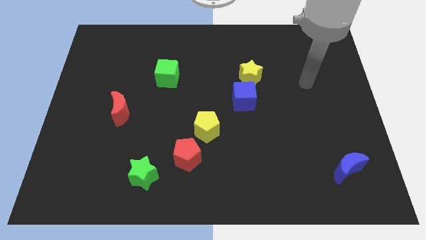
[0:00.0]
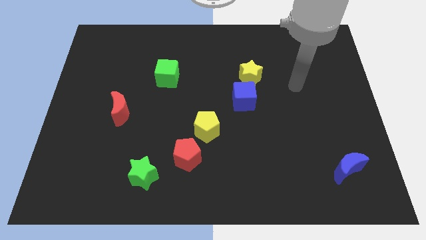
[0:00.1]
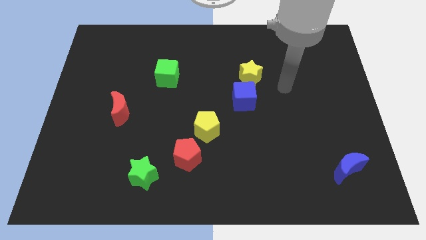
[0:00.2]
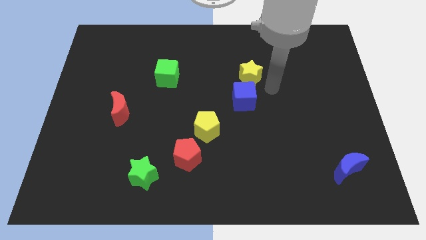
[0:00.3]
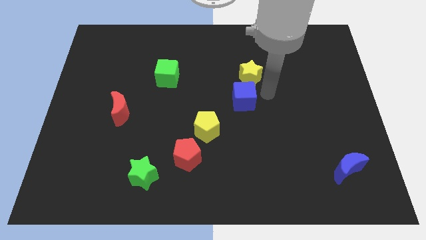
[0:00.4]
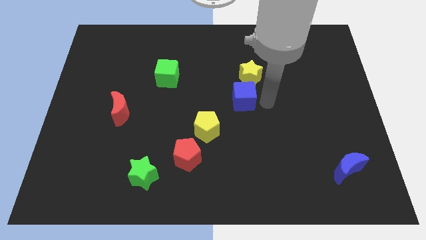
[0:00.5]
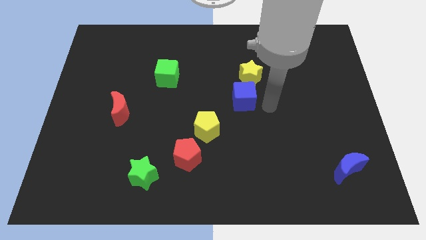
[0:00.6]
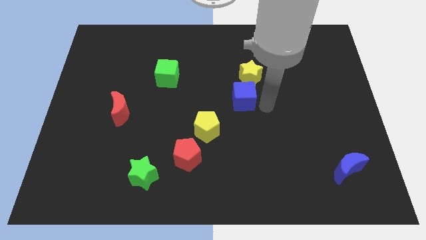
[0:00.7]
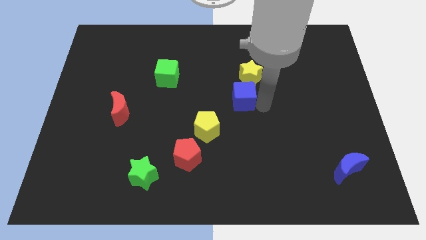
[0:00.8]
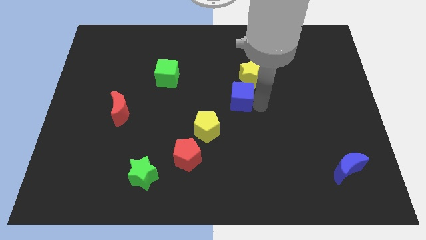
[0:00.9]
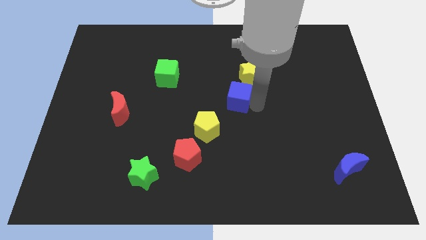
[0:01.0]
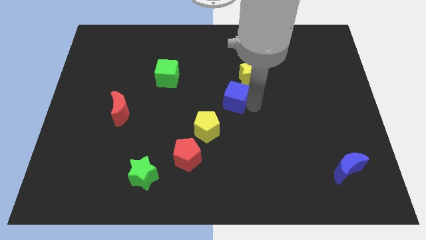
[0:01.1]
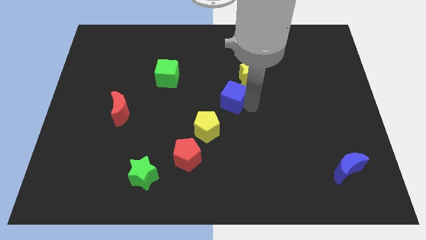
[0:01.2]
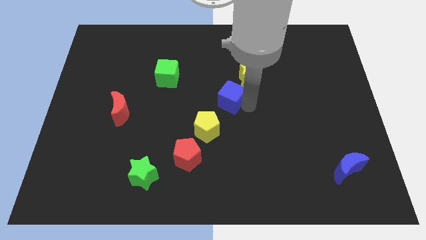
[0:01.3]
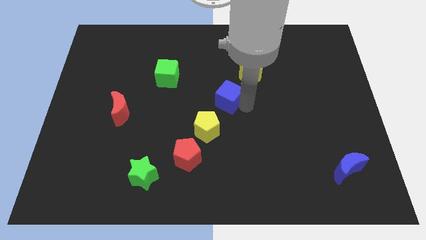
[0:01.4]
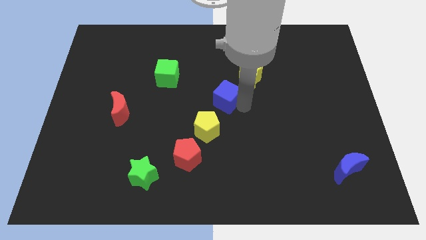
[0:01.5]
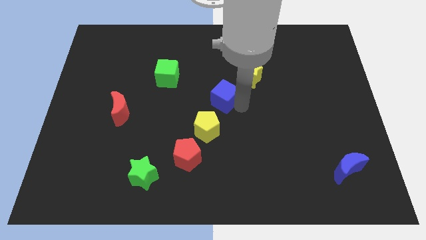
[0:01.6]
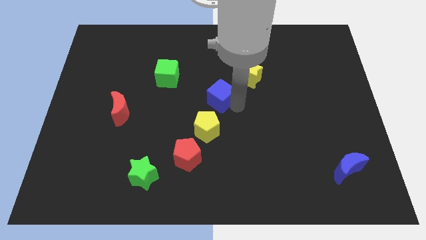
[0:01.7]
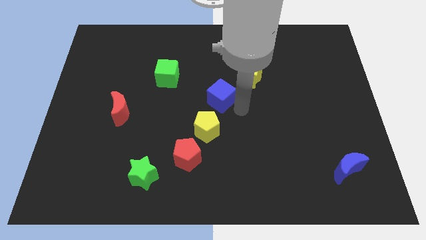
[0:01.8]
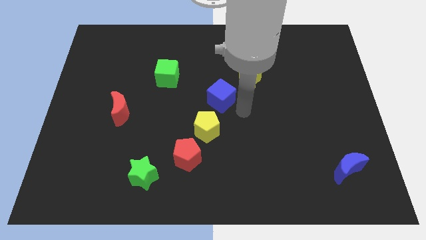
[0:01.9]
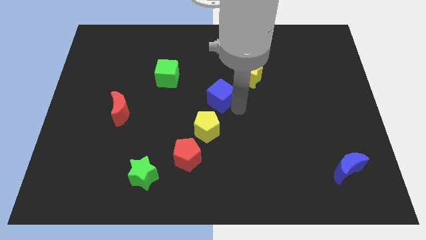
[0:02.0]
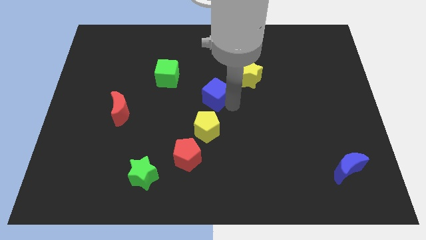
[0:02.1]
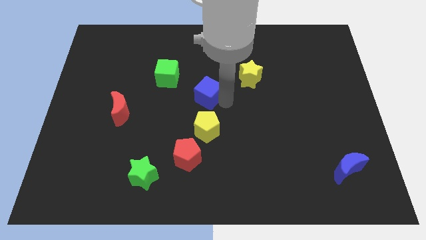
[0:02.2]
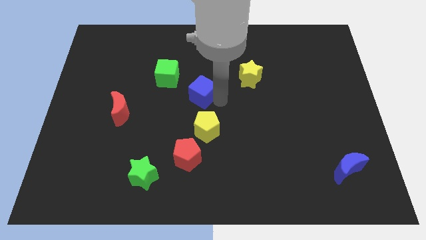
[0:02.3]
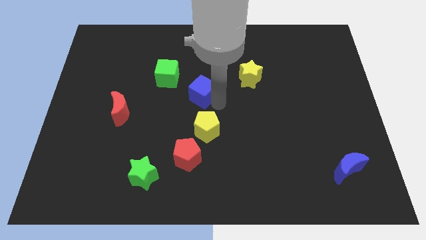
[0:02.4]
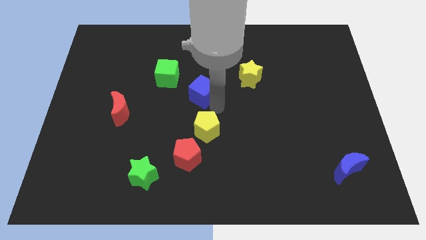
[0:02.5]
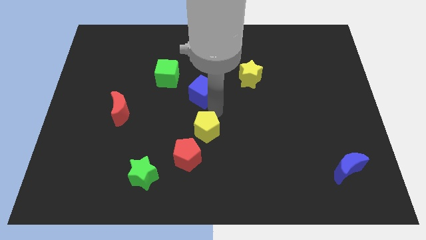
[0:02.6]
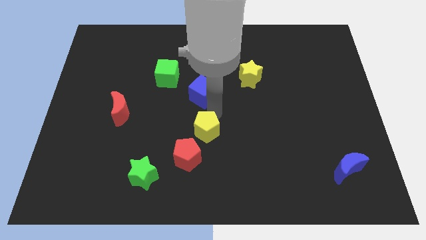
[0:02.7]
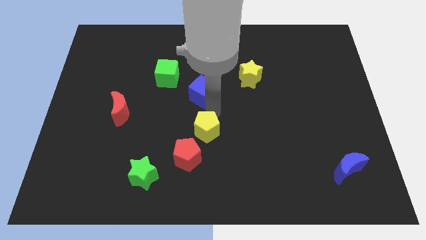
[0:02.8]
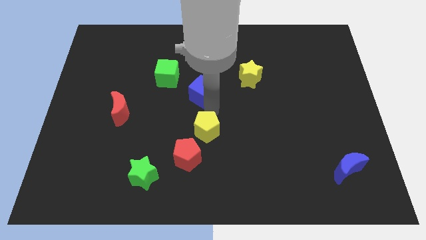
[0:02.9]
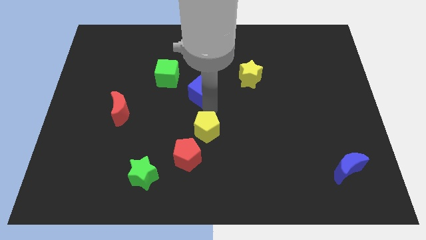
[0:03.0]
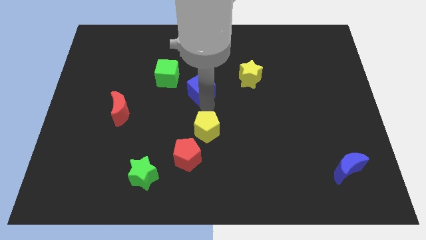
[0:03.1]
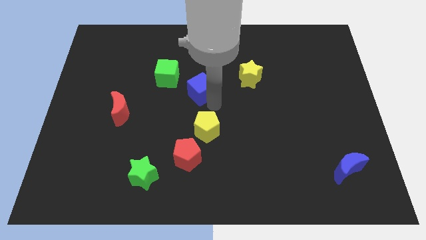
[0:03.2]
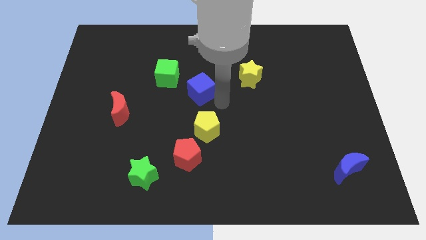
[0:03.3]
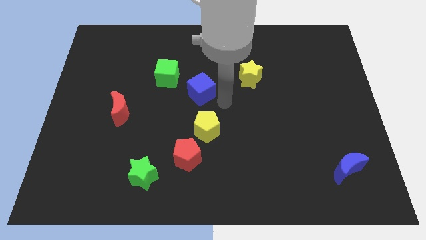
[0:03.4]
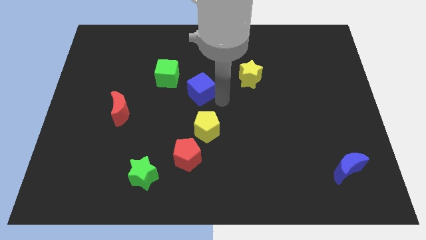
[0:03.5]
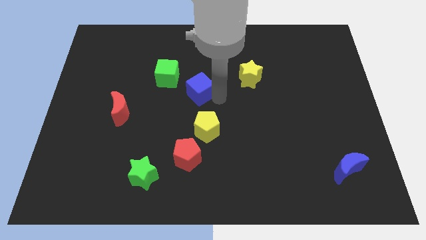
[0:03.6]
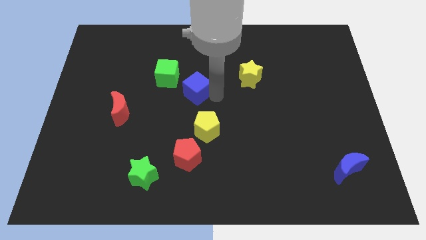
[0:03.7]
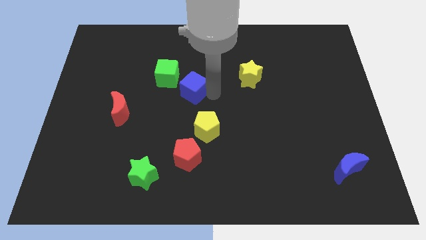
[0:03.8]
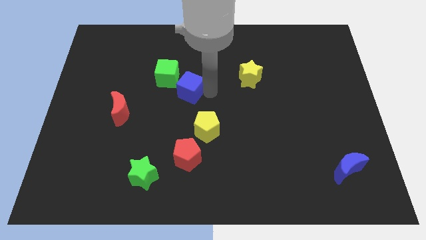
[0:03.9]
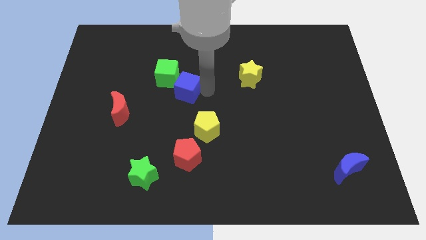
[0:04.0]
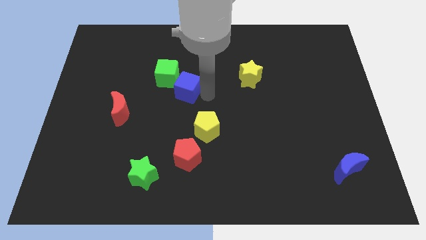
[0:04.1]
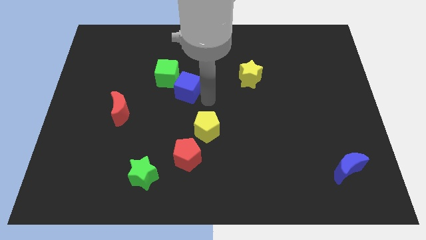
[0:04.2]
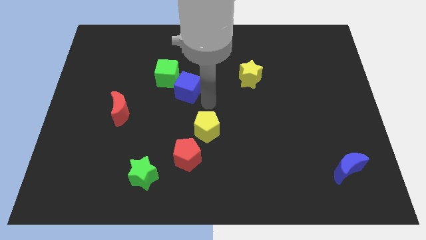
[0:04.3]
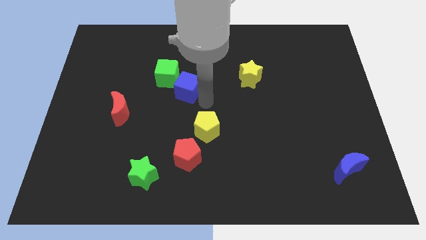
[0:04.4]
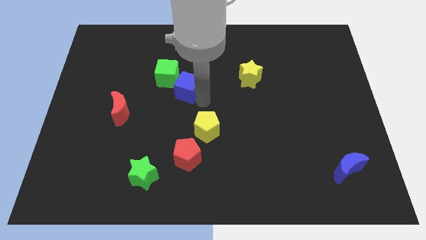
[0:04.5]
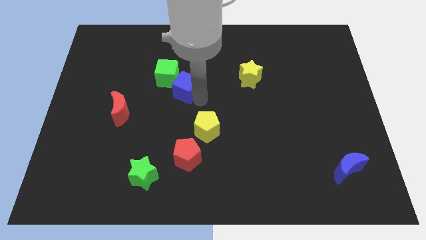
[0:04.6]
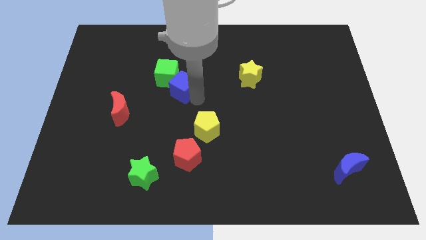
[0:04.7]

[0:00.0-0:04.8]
put the blue cube to the green cube

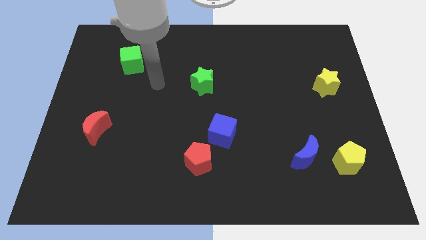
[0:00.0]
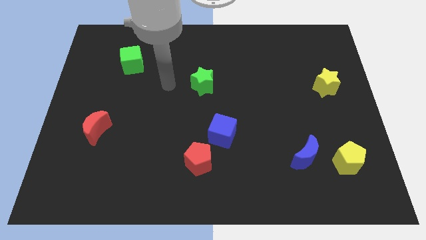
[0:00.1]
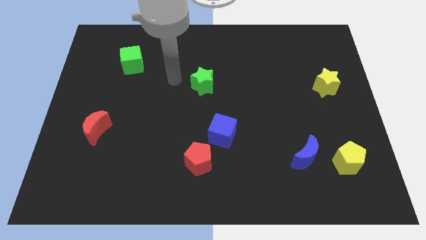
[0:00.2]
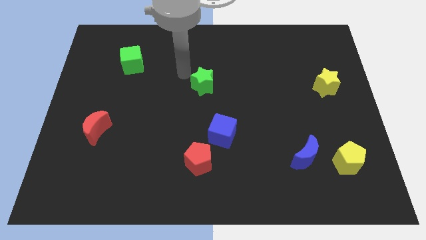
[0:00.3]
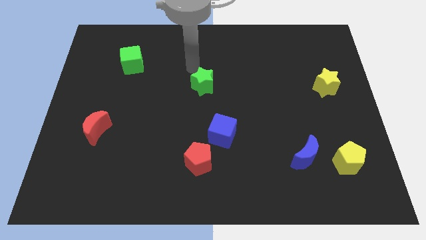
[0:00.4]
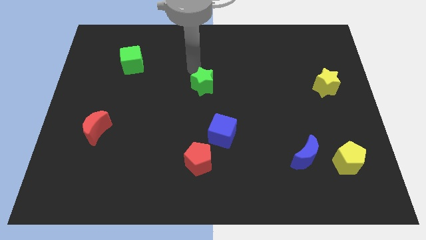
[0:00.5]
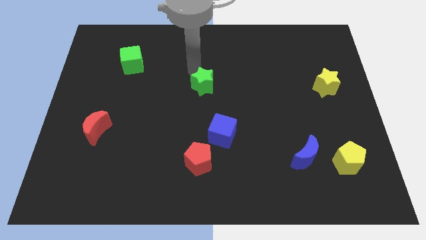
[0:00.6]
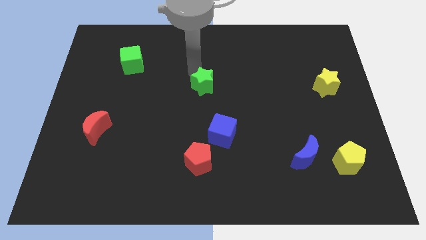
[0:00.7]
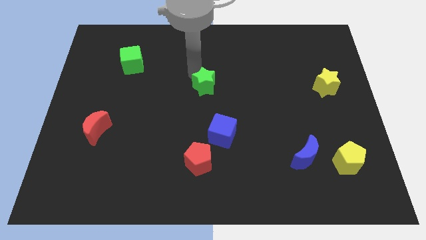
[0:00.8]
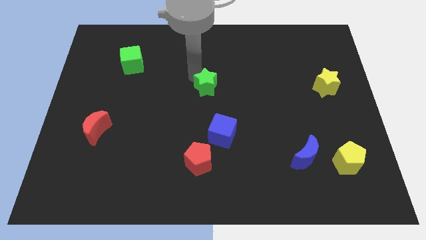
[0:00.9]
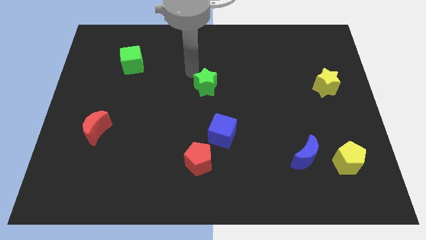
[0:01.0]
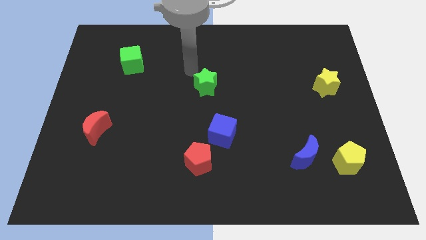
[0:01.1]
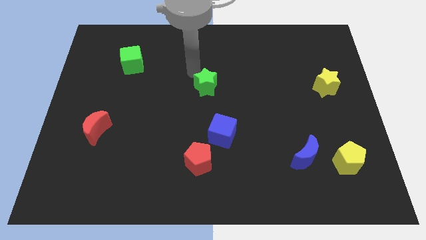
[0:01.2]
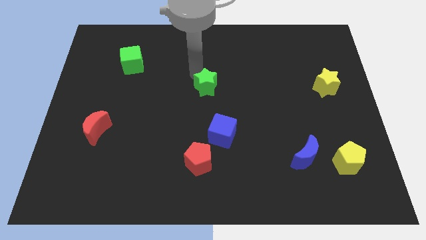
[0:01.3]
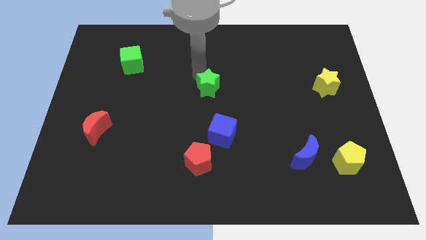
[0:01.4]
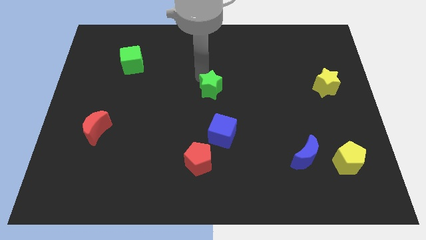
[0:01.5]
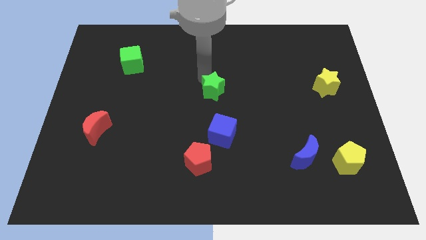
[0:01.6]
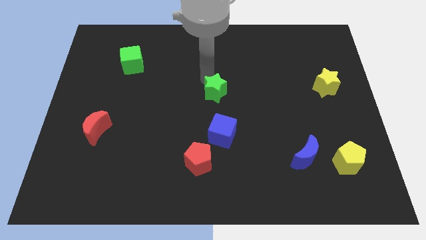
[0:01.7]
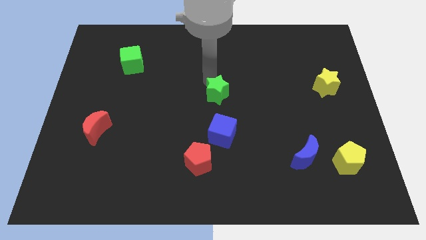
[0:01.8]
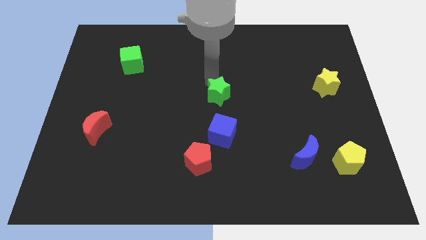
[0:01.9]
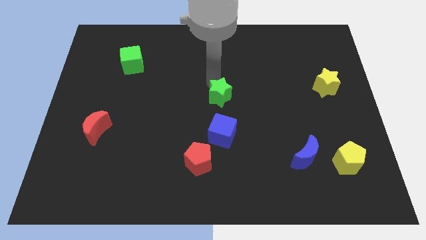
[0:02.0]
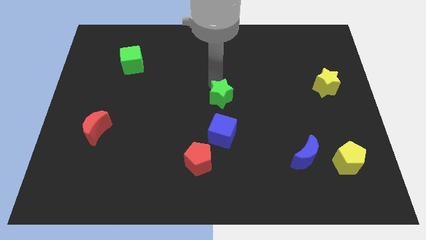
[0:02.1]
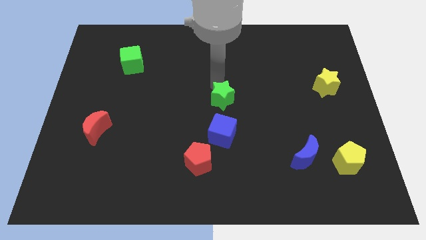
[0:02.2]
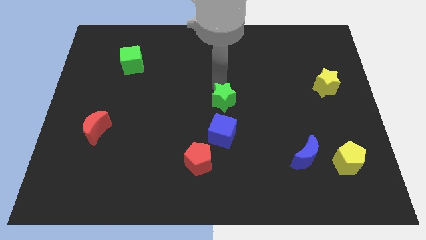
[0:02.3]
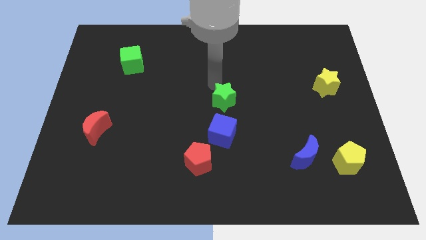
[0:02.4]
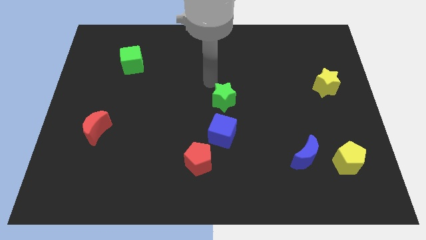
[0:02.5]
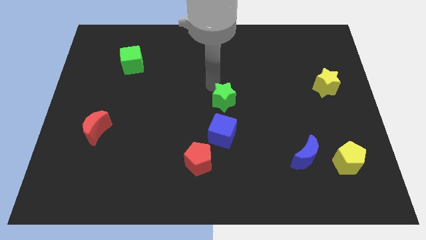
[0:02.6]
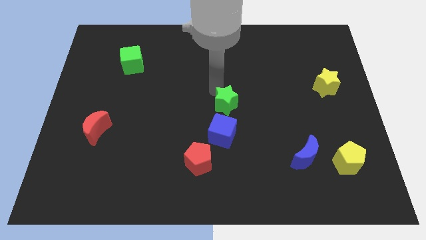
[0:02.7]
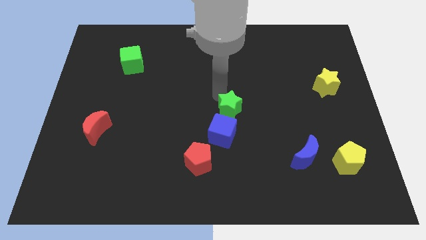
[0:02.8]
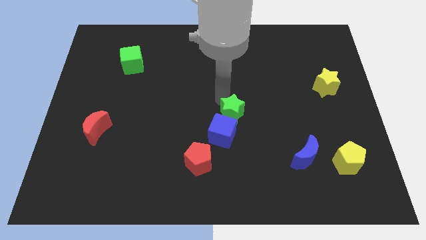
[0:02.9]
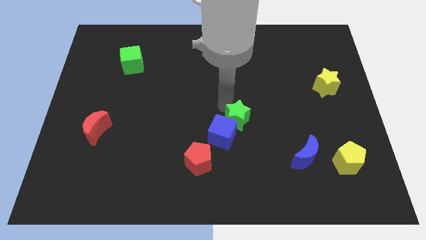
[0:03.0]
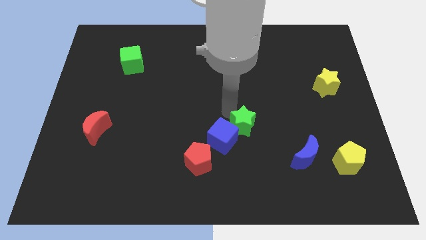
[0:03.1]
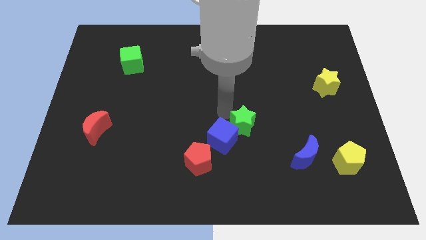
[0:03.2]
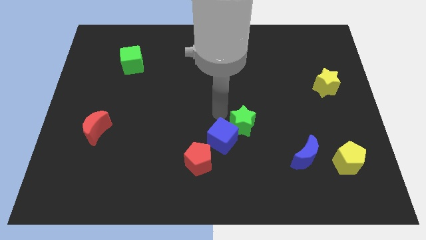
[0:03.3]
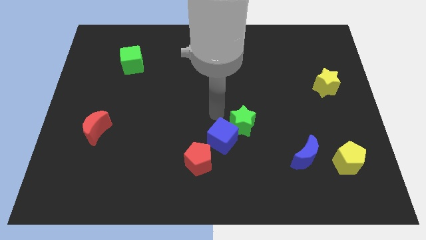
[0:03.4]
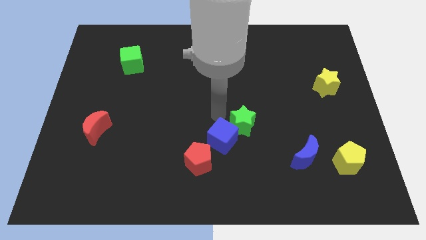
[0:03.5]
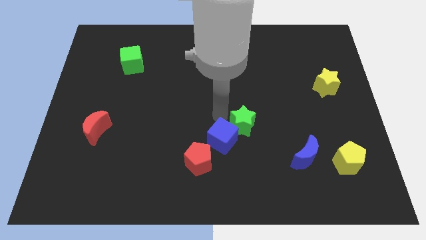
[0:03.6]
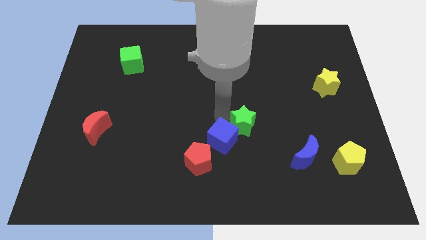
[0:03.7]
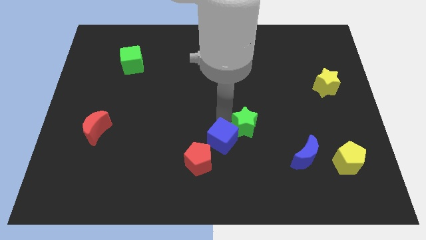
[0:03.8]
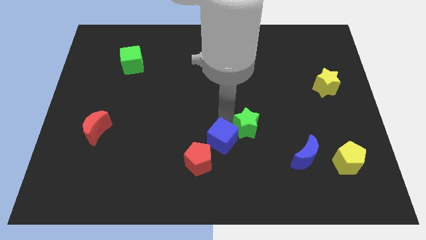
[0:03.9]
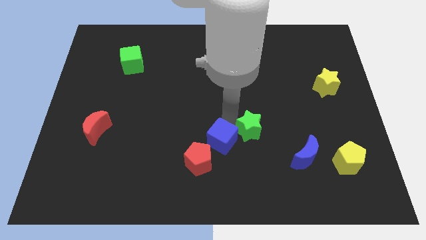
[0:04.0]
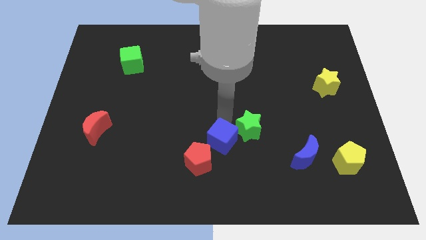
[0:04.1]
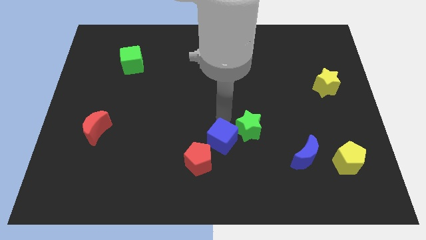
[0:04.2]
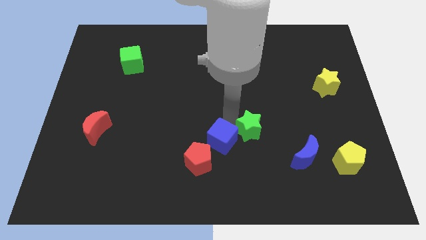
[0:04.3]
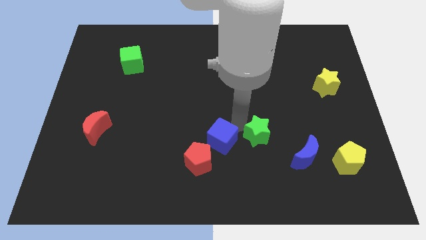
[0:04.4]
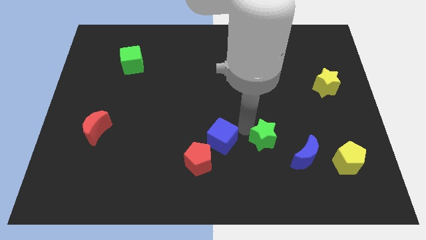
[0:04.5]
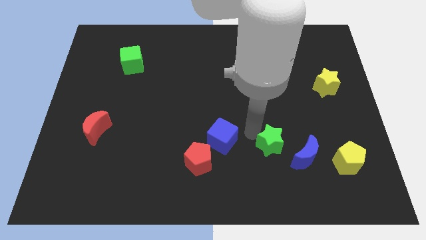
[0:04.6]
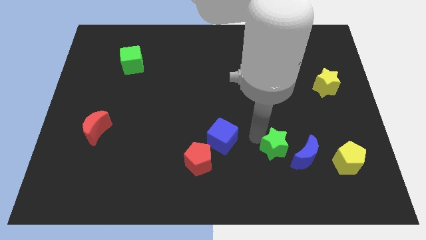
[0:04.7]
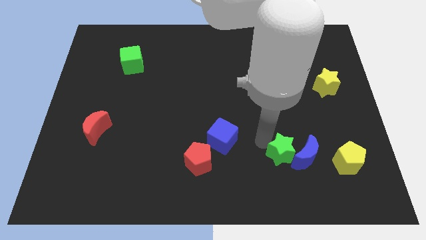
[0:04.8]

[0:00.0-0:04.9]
put the green star close to the blue moon
